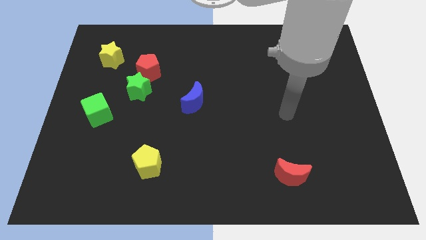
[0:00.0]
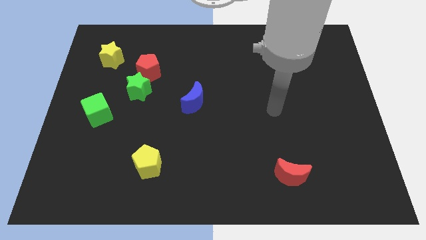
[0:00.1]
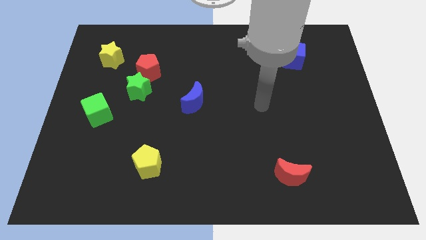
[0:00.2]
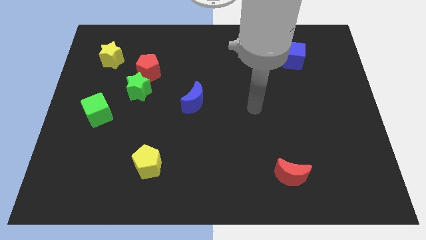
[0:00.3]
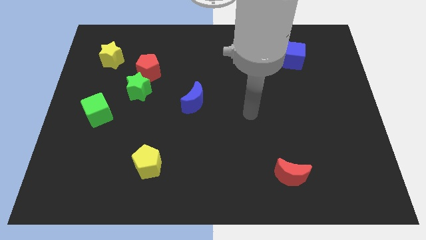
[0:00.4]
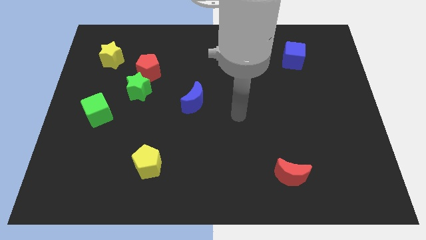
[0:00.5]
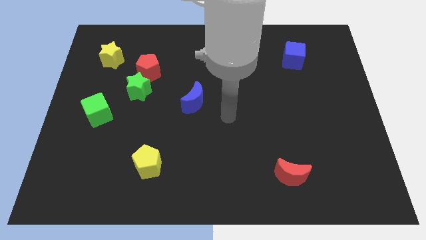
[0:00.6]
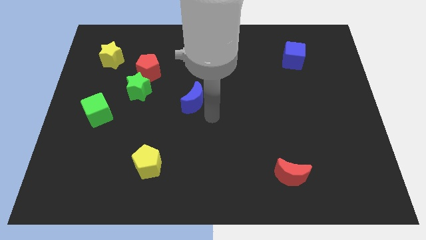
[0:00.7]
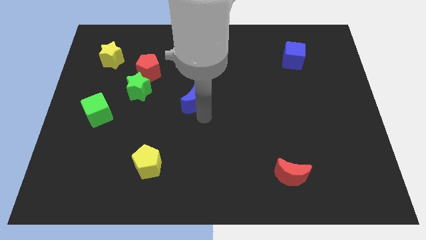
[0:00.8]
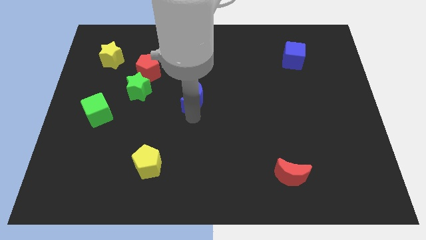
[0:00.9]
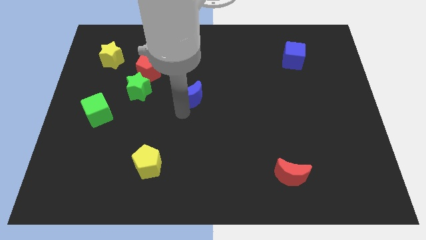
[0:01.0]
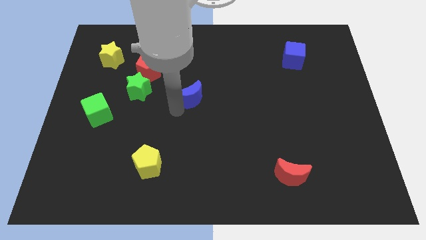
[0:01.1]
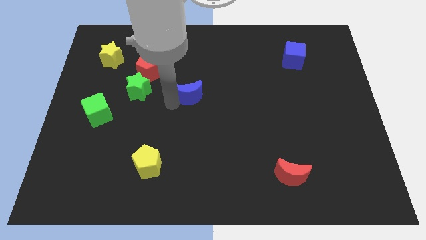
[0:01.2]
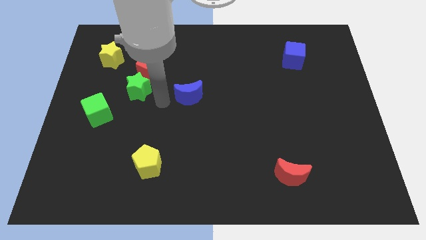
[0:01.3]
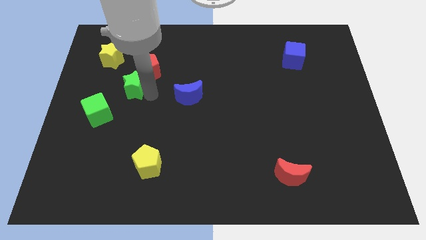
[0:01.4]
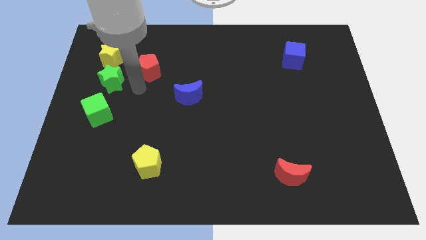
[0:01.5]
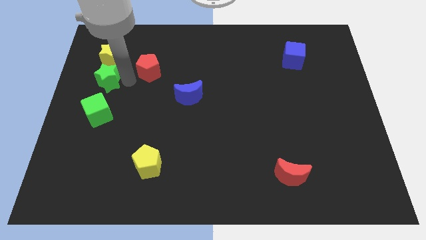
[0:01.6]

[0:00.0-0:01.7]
move the red pentagon away from the green star

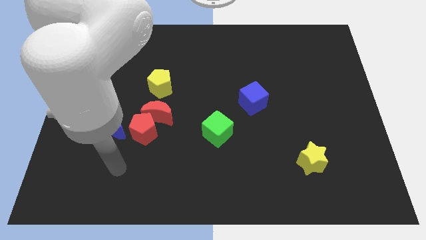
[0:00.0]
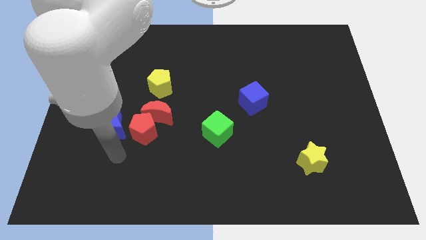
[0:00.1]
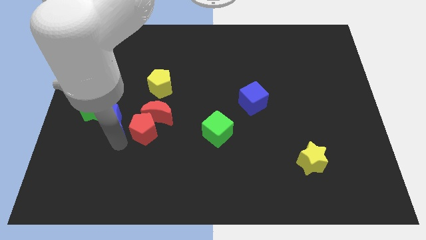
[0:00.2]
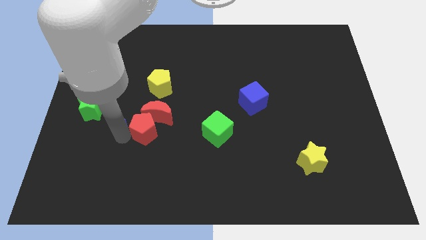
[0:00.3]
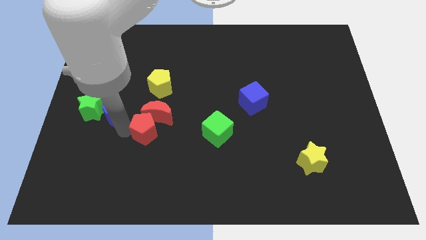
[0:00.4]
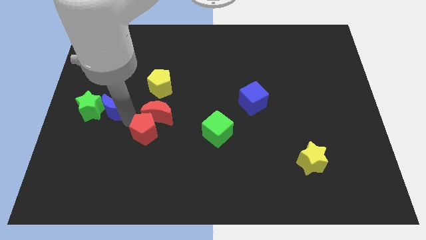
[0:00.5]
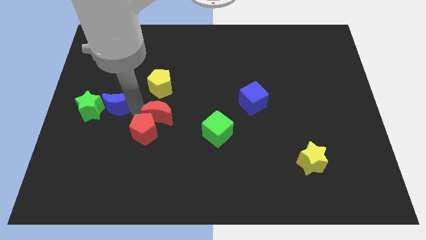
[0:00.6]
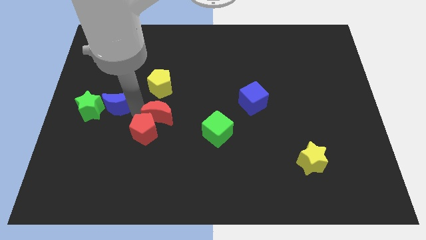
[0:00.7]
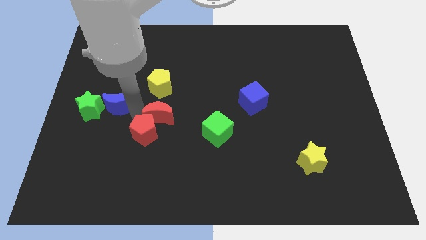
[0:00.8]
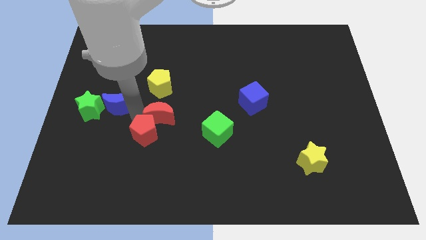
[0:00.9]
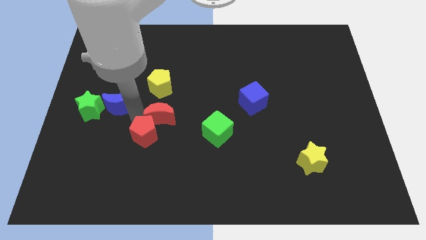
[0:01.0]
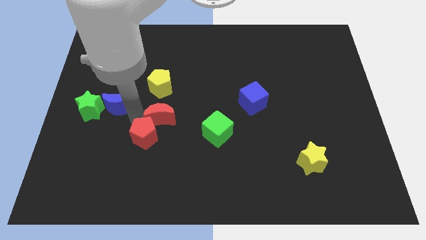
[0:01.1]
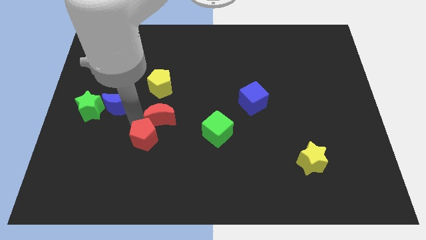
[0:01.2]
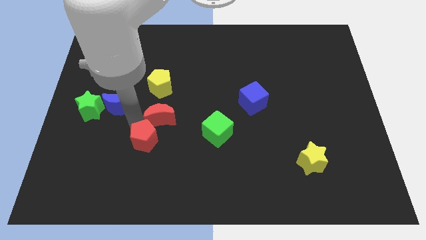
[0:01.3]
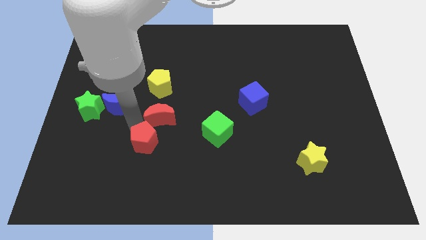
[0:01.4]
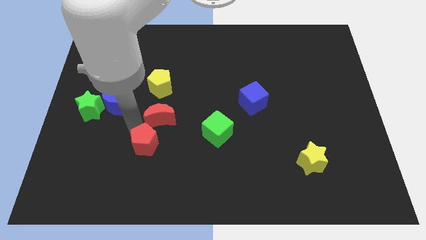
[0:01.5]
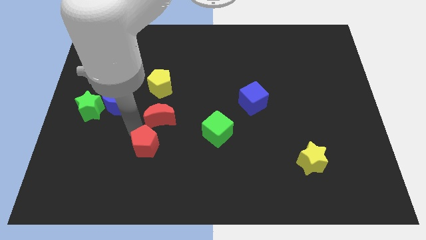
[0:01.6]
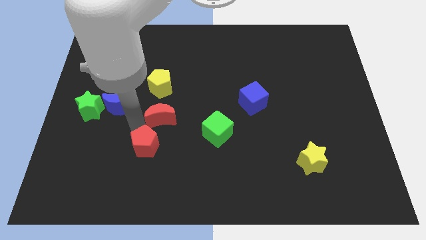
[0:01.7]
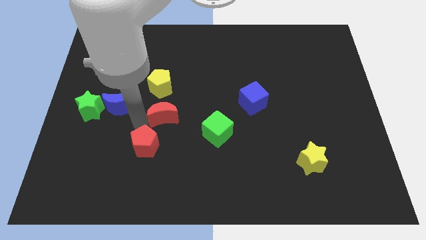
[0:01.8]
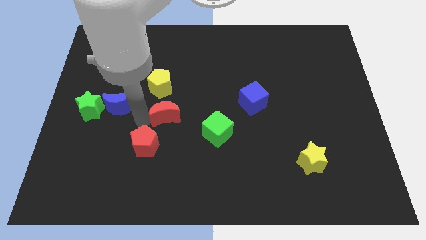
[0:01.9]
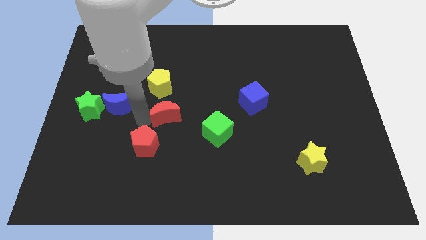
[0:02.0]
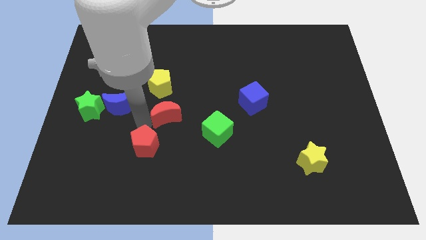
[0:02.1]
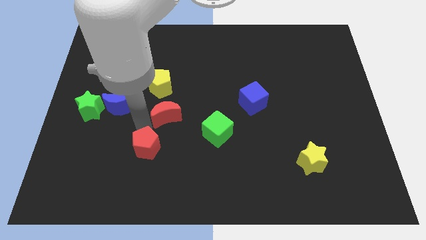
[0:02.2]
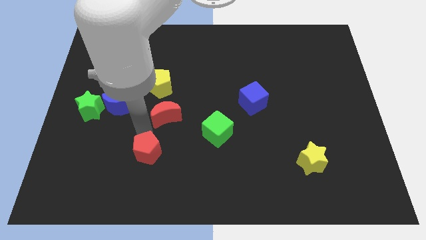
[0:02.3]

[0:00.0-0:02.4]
separate the red pentagon from the red moon and blue moon

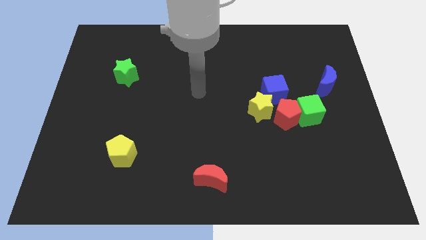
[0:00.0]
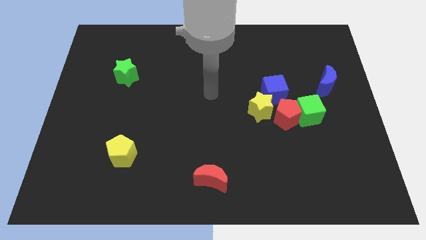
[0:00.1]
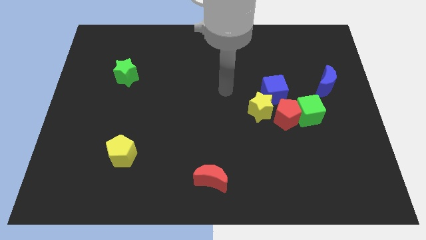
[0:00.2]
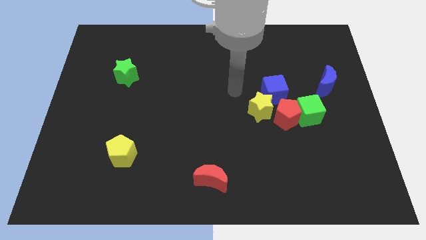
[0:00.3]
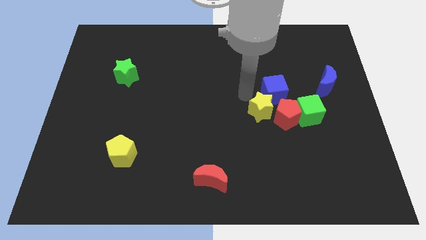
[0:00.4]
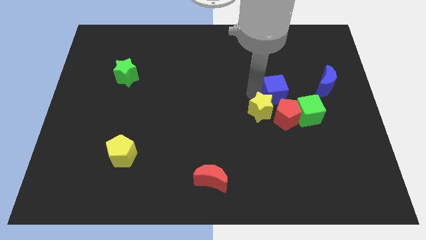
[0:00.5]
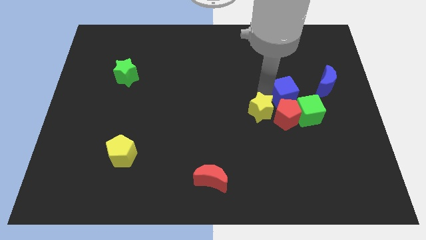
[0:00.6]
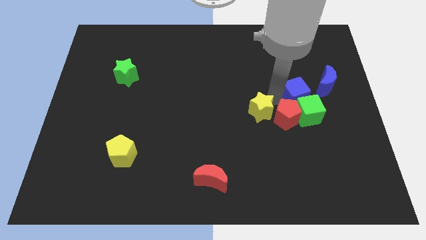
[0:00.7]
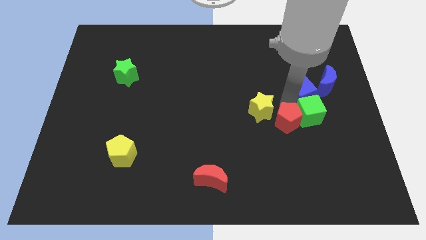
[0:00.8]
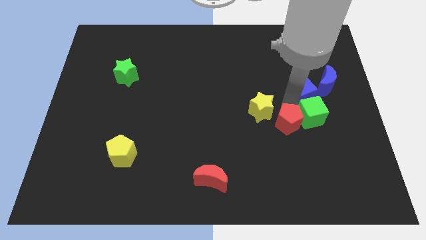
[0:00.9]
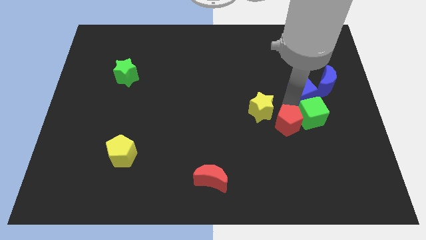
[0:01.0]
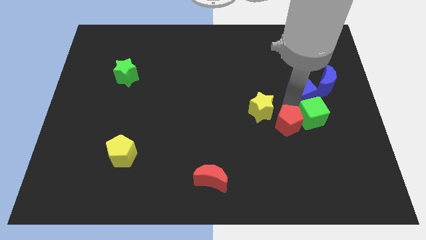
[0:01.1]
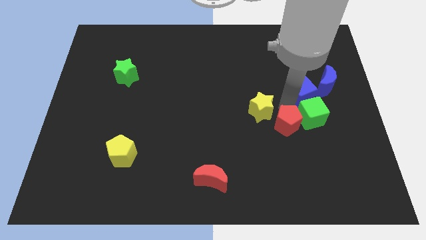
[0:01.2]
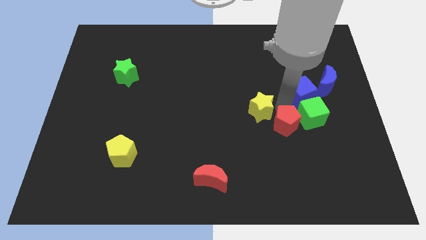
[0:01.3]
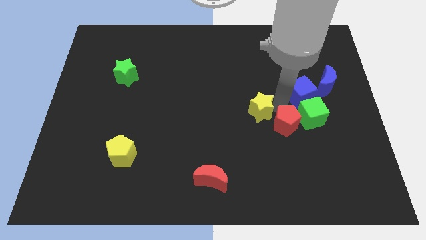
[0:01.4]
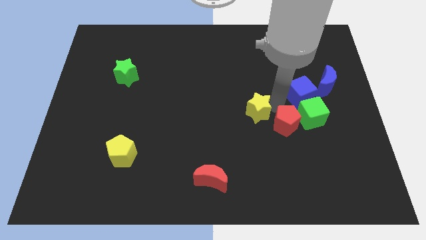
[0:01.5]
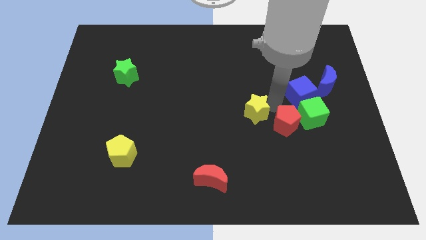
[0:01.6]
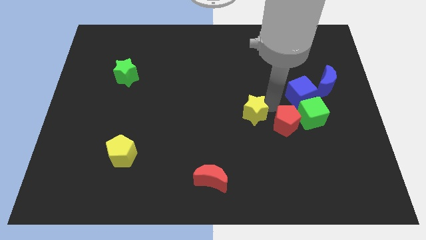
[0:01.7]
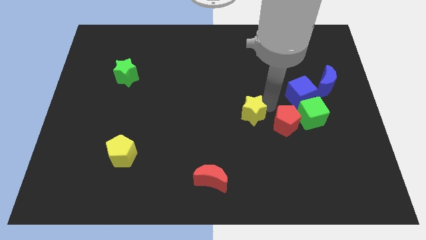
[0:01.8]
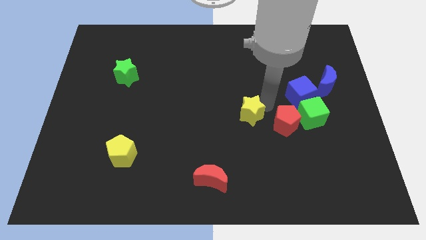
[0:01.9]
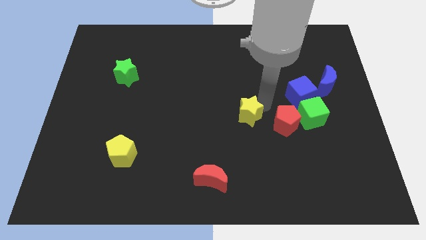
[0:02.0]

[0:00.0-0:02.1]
separate the yellow star from the red pentagon and blue cube

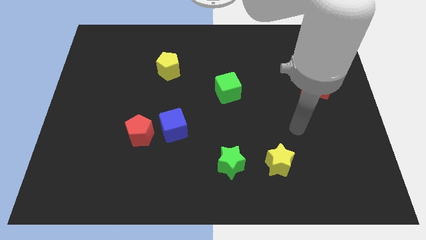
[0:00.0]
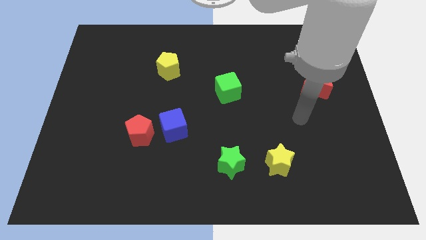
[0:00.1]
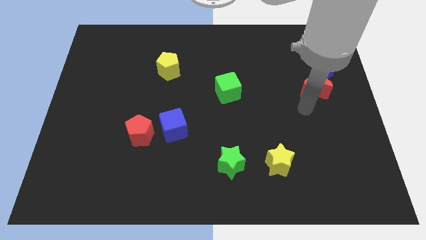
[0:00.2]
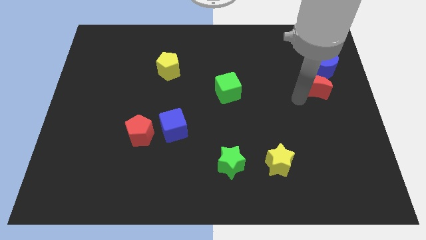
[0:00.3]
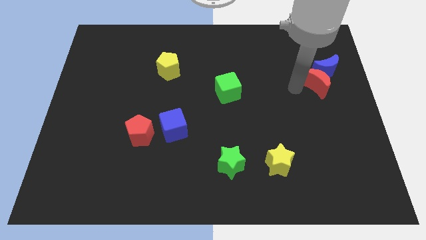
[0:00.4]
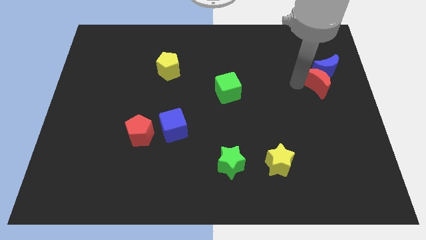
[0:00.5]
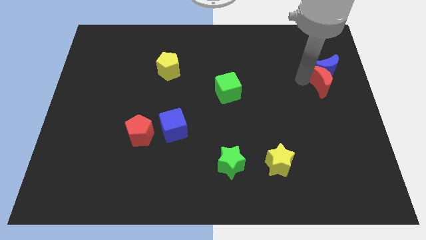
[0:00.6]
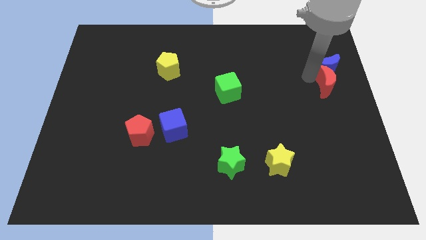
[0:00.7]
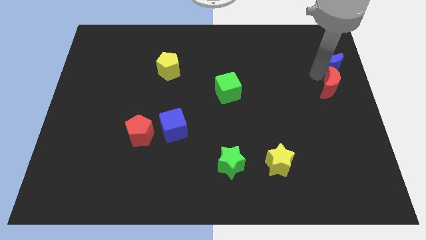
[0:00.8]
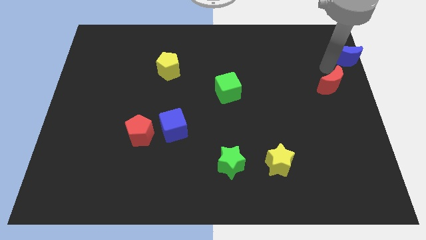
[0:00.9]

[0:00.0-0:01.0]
separate the red moon from the blue moon

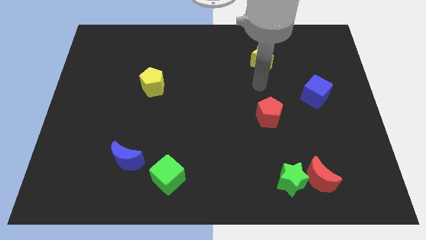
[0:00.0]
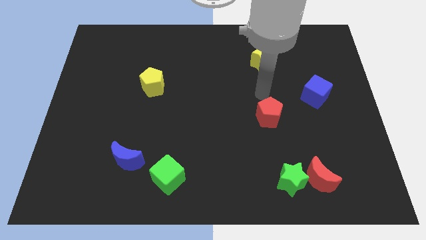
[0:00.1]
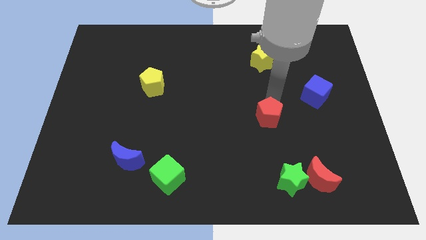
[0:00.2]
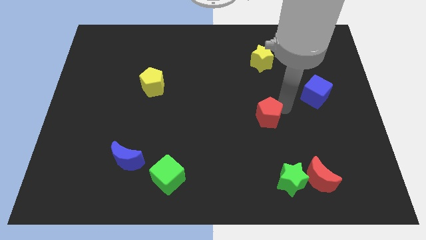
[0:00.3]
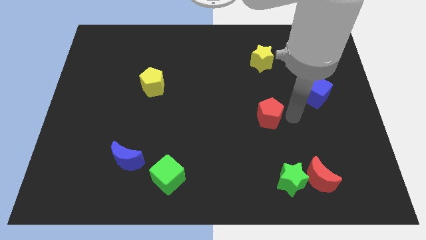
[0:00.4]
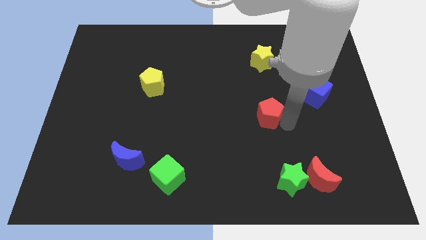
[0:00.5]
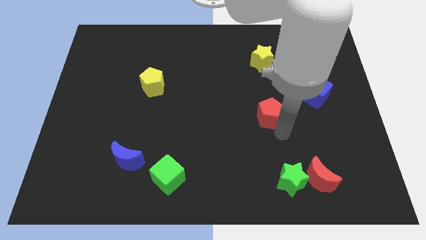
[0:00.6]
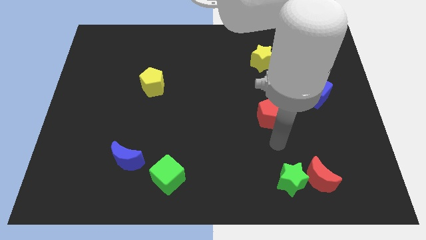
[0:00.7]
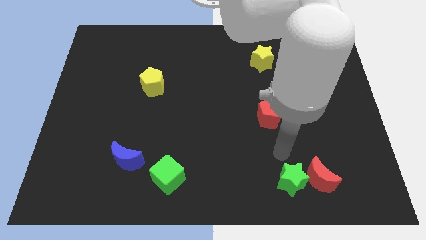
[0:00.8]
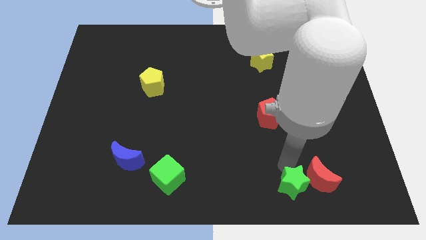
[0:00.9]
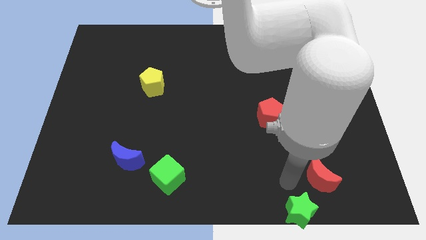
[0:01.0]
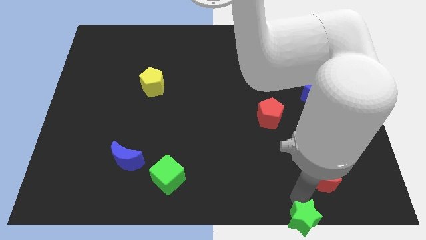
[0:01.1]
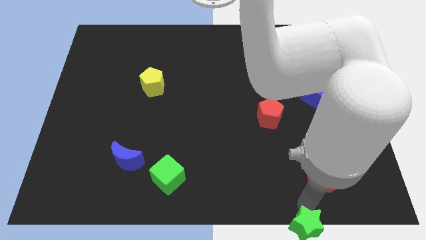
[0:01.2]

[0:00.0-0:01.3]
separate the red moon from the green star

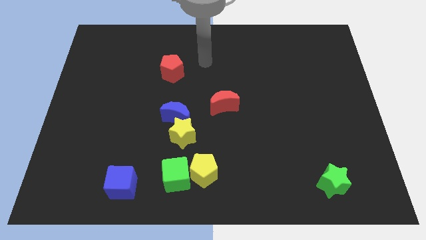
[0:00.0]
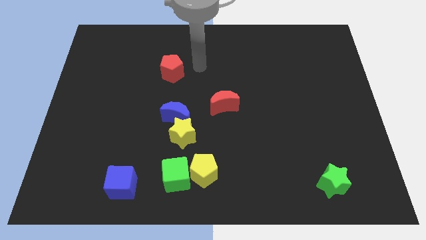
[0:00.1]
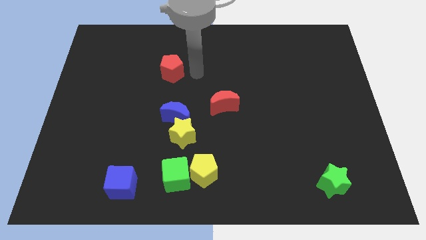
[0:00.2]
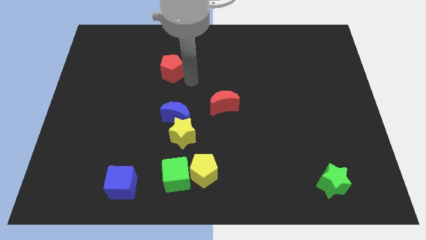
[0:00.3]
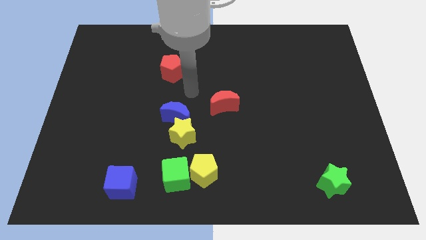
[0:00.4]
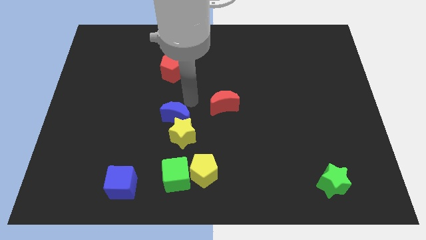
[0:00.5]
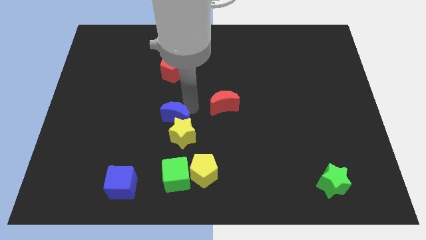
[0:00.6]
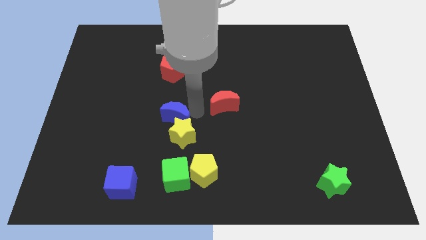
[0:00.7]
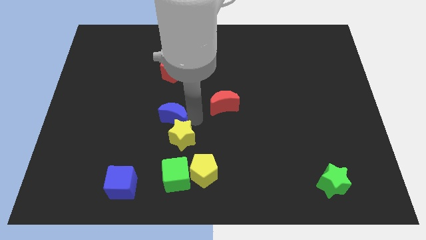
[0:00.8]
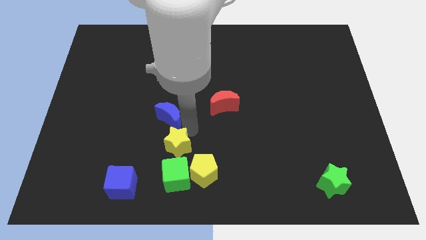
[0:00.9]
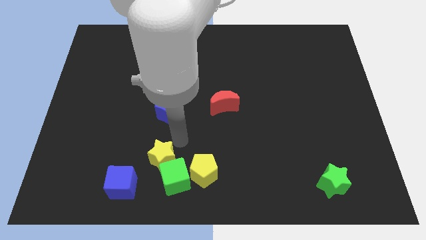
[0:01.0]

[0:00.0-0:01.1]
pull the blue moon apart from the yellow star
